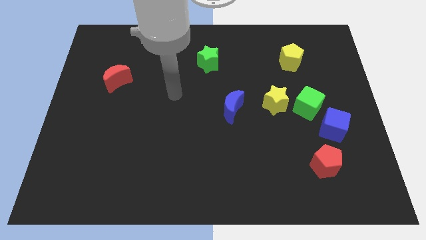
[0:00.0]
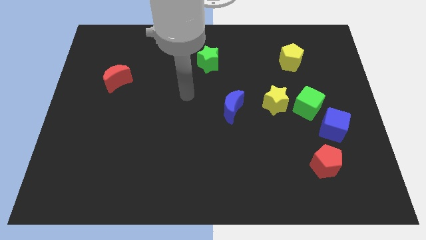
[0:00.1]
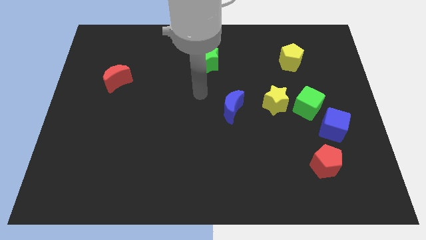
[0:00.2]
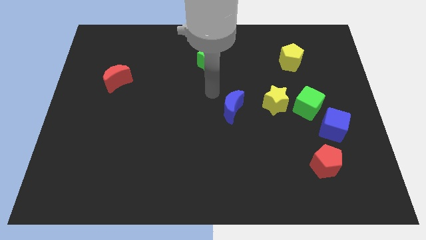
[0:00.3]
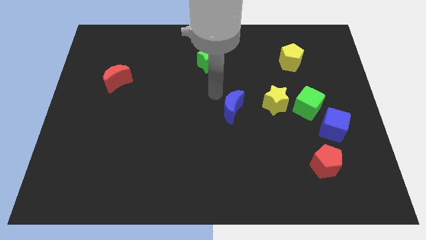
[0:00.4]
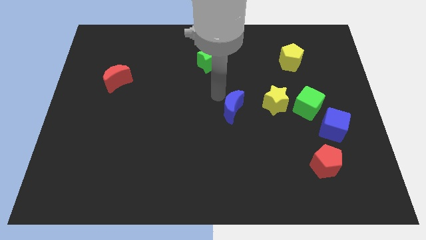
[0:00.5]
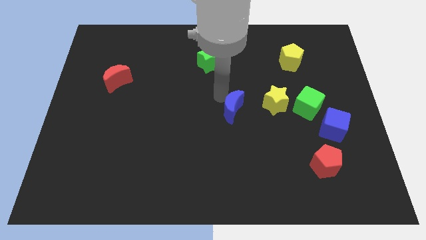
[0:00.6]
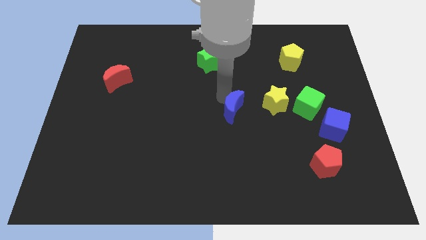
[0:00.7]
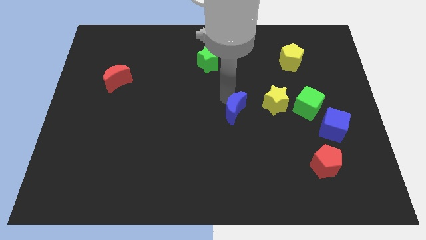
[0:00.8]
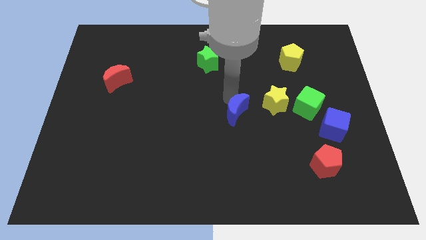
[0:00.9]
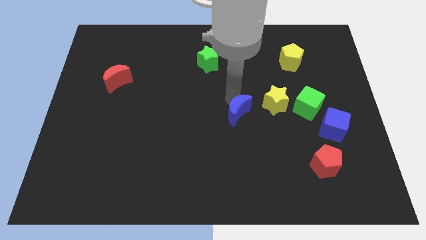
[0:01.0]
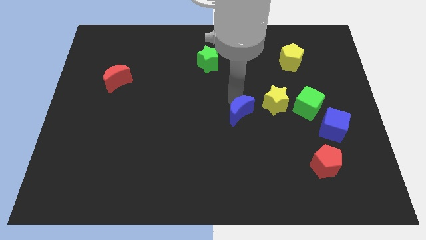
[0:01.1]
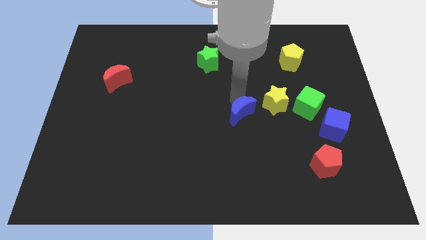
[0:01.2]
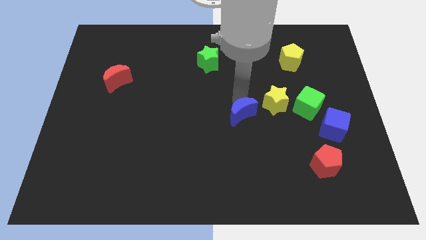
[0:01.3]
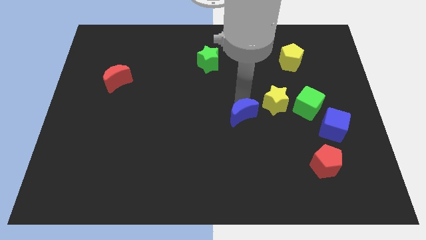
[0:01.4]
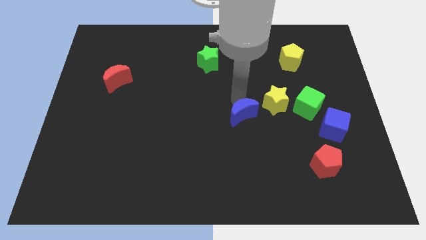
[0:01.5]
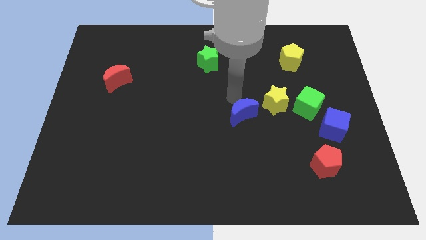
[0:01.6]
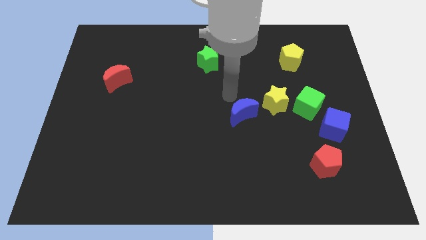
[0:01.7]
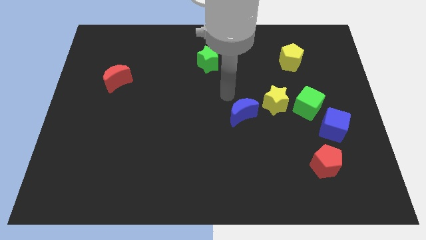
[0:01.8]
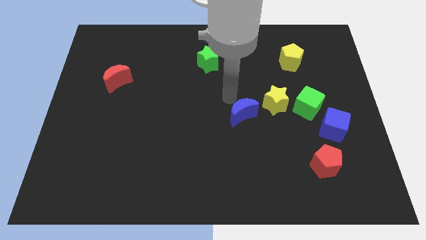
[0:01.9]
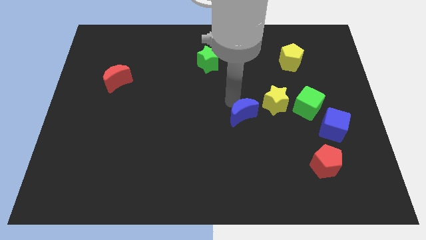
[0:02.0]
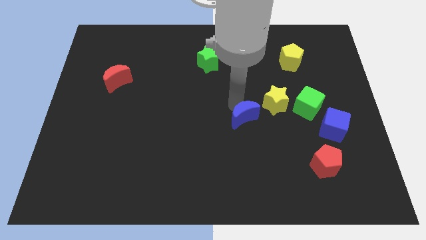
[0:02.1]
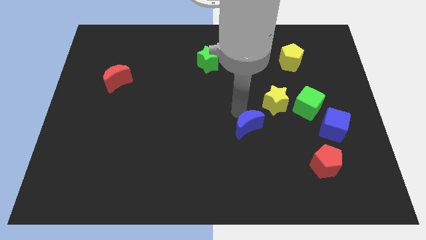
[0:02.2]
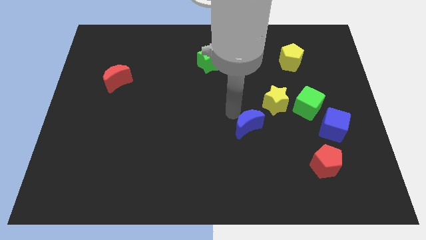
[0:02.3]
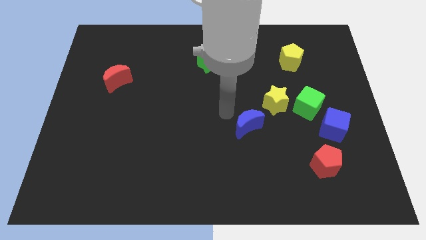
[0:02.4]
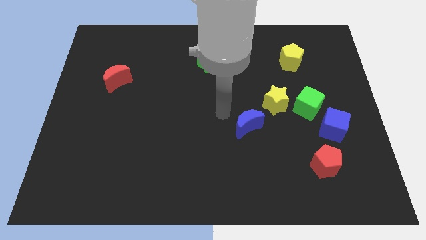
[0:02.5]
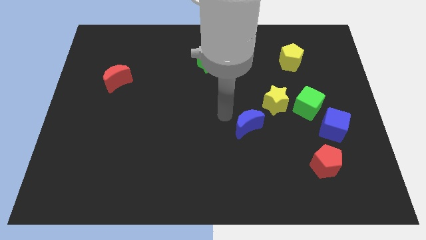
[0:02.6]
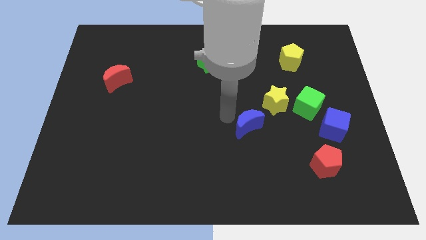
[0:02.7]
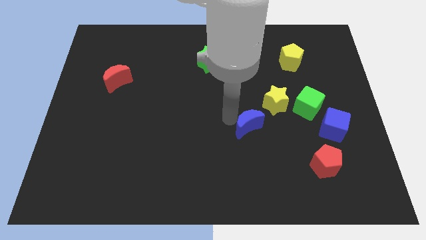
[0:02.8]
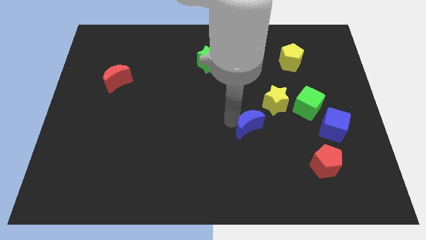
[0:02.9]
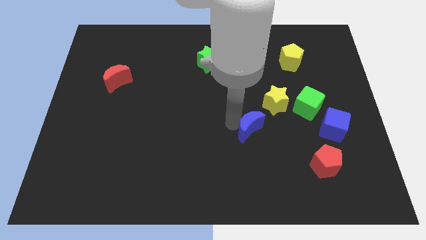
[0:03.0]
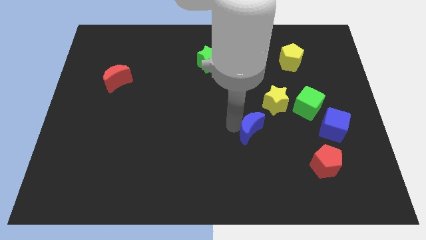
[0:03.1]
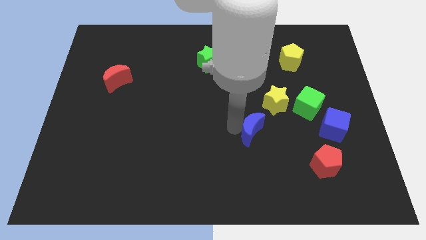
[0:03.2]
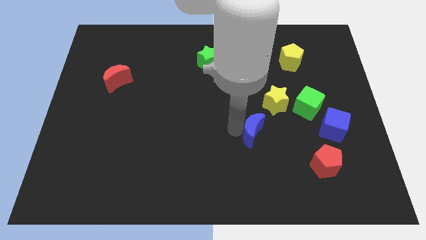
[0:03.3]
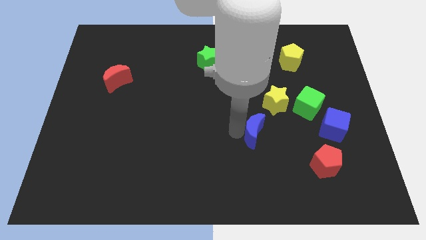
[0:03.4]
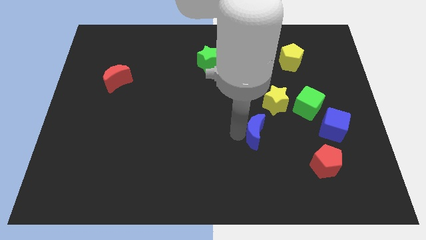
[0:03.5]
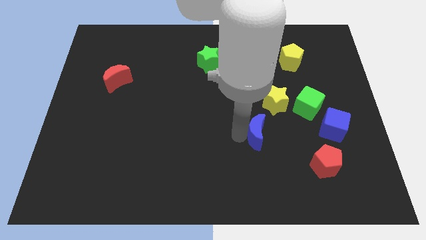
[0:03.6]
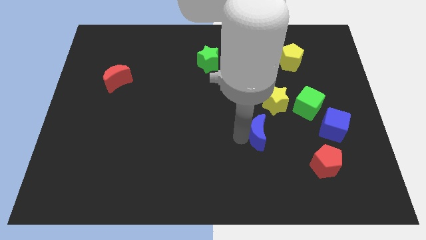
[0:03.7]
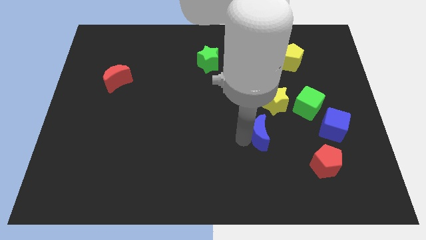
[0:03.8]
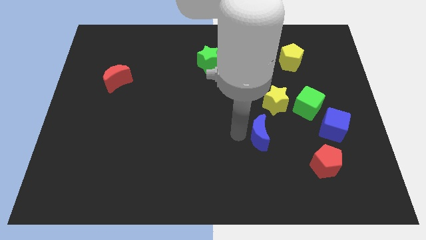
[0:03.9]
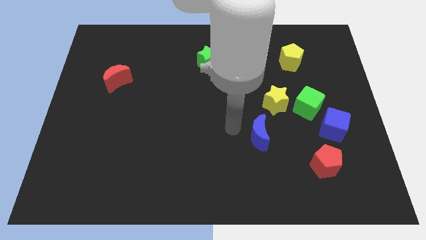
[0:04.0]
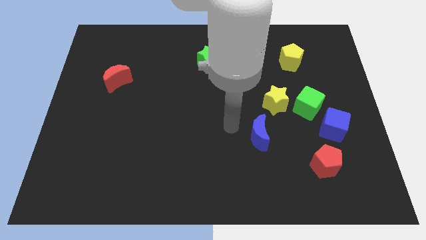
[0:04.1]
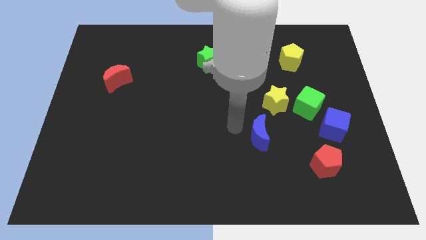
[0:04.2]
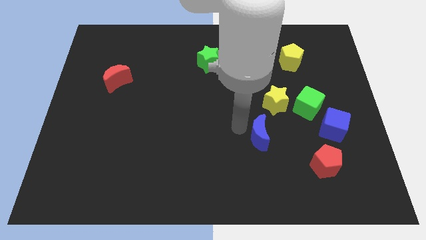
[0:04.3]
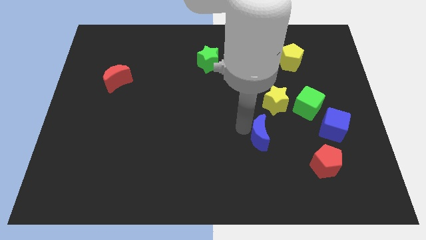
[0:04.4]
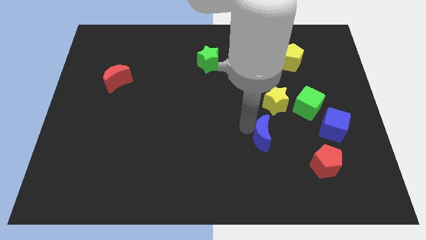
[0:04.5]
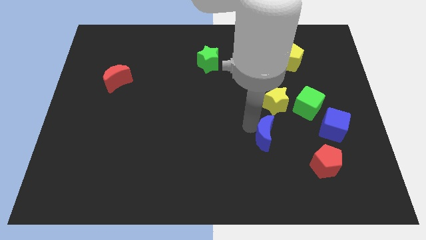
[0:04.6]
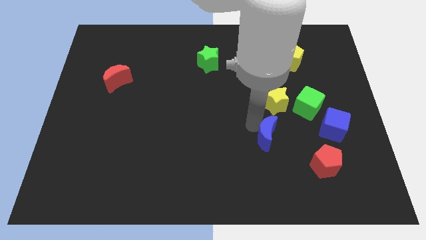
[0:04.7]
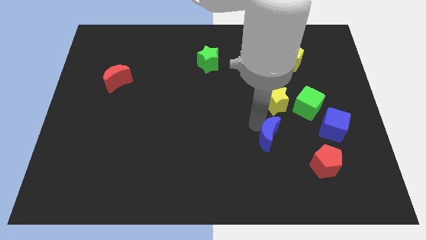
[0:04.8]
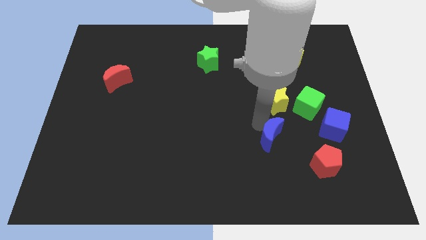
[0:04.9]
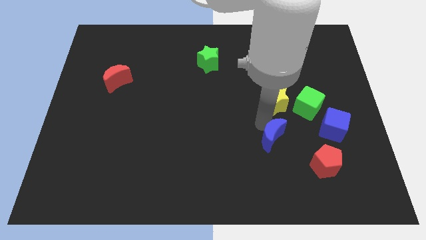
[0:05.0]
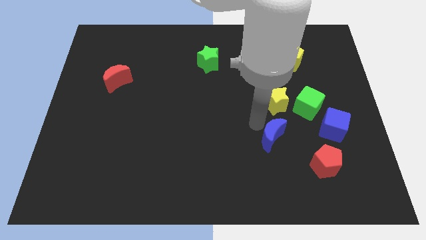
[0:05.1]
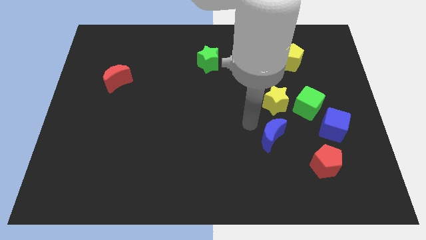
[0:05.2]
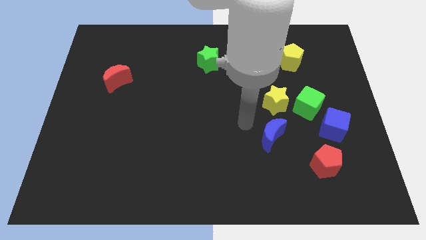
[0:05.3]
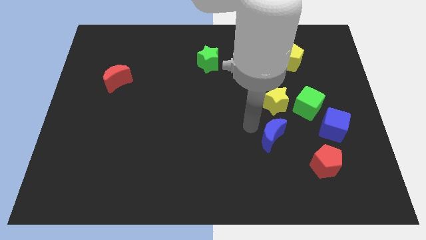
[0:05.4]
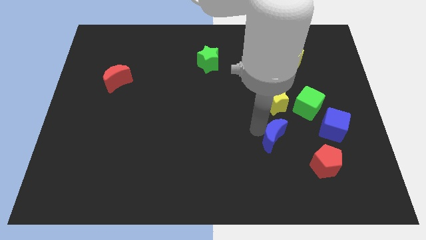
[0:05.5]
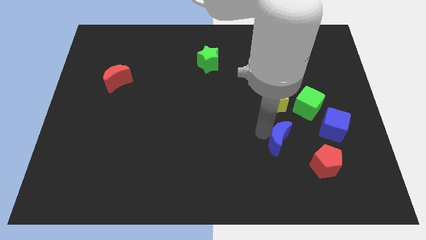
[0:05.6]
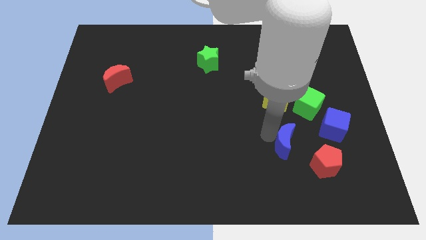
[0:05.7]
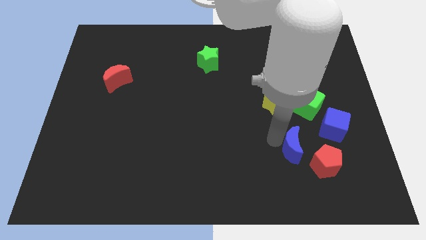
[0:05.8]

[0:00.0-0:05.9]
push the blue moon to the bottom left of the blue cube

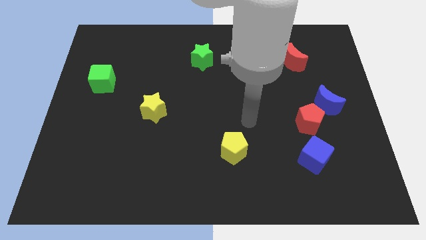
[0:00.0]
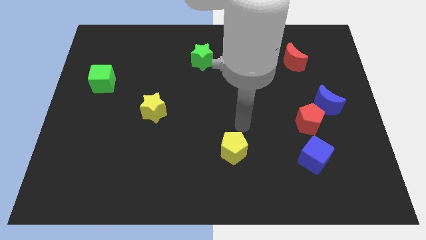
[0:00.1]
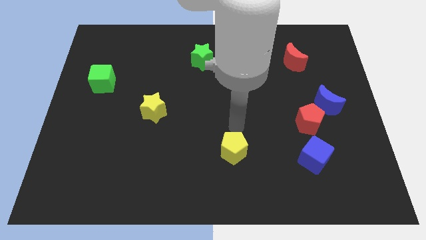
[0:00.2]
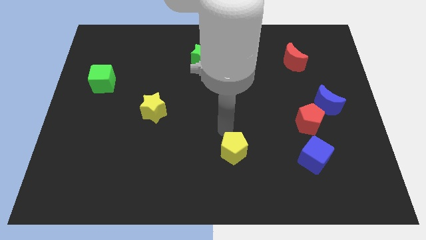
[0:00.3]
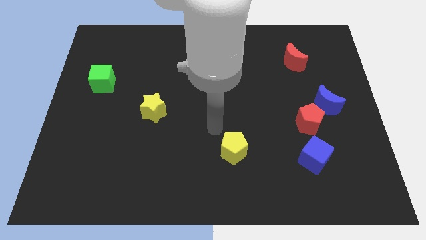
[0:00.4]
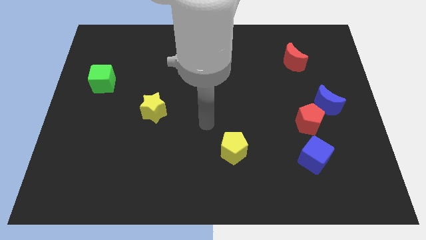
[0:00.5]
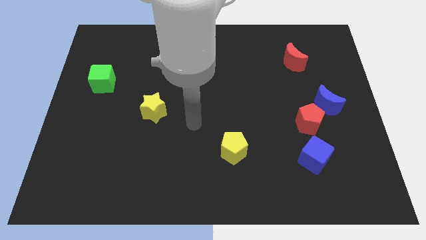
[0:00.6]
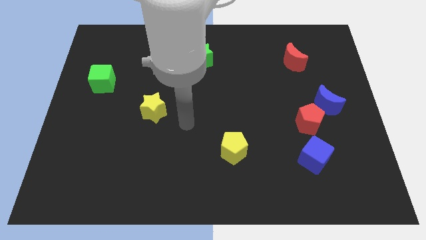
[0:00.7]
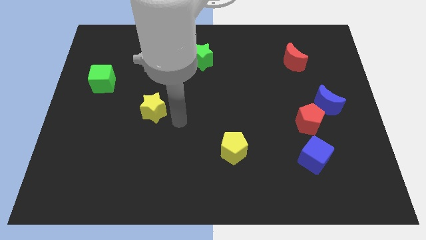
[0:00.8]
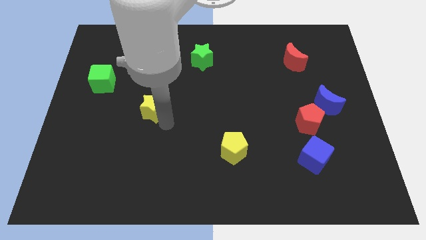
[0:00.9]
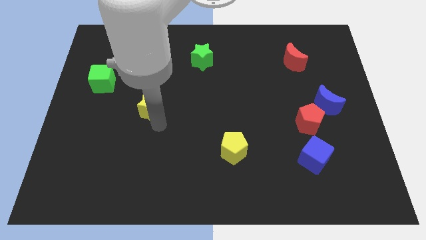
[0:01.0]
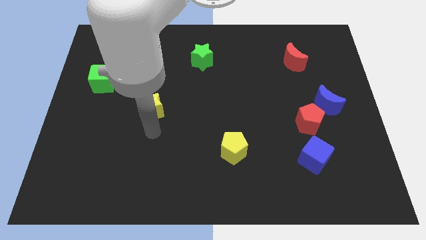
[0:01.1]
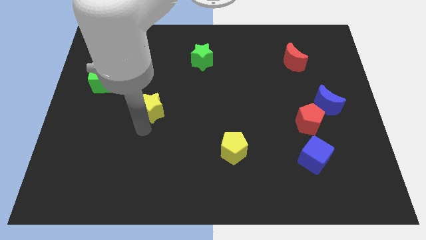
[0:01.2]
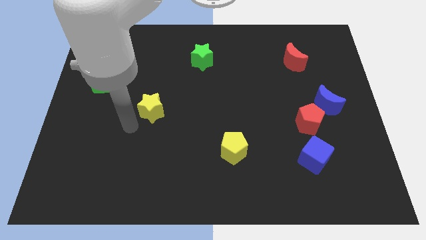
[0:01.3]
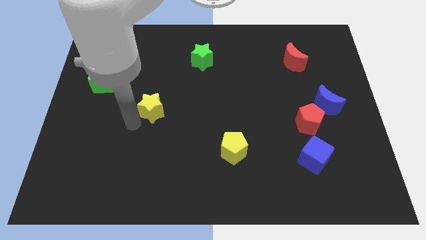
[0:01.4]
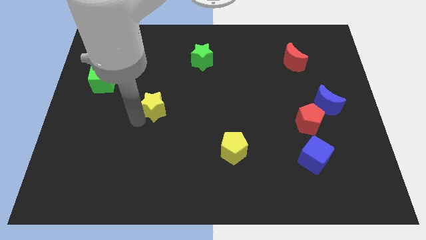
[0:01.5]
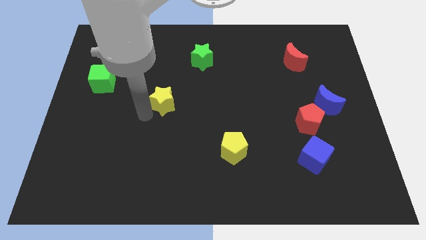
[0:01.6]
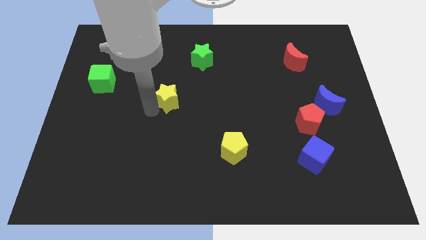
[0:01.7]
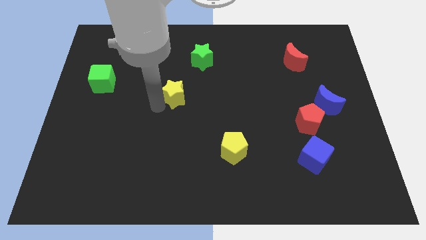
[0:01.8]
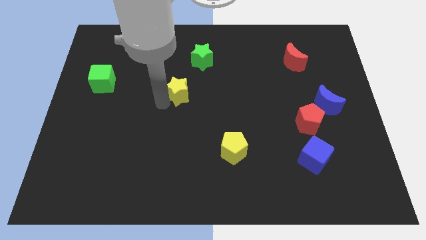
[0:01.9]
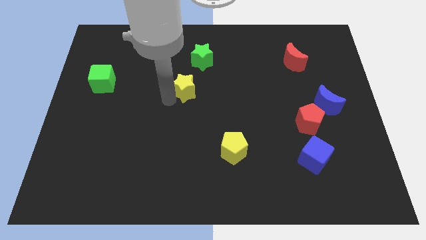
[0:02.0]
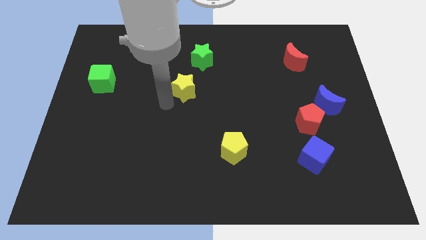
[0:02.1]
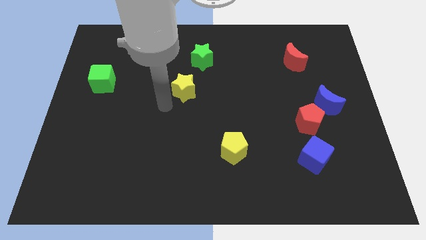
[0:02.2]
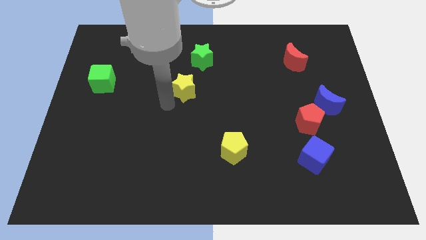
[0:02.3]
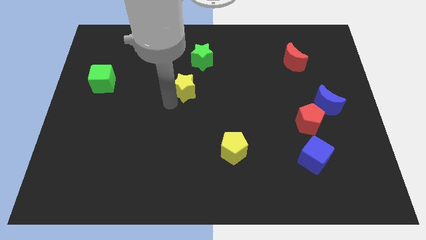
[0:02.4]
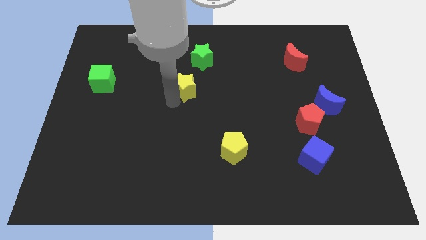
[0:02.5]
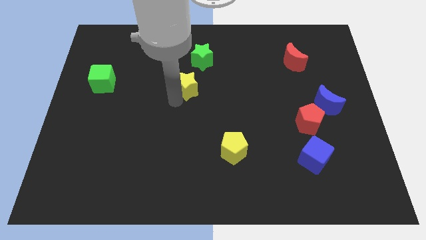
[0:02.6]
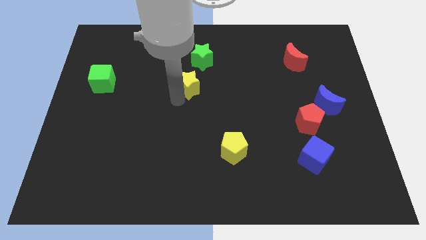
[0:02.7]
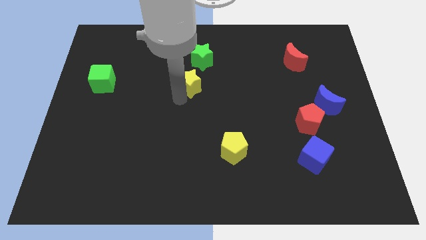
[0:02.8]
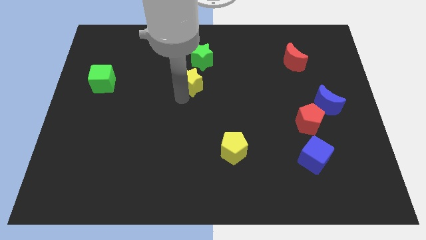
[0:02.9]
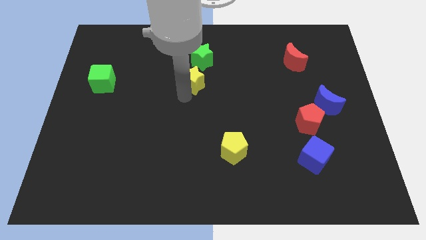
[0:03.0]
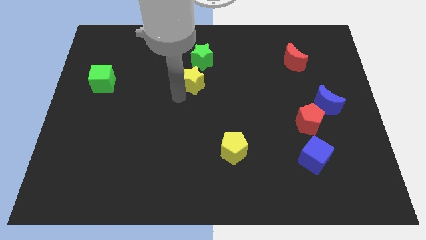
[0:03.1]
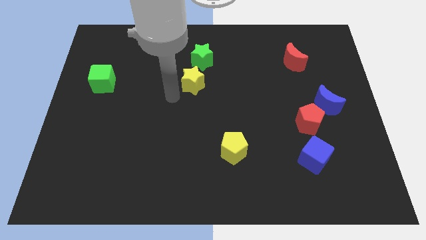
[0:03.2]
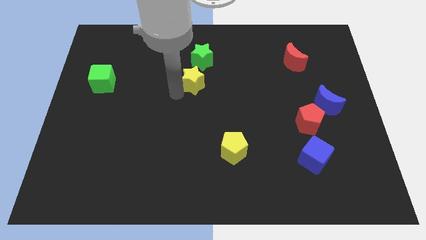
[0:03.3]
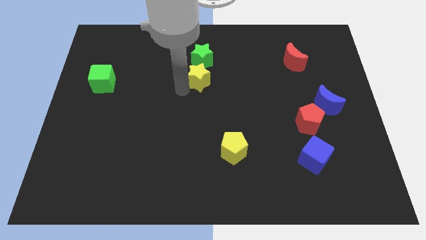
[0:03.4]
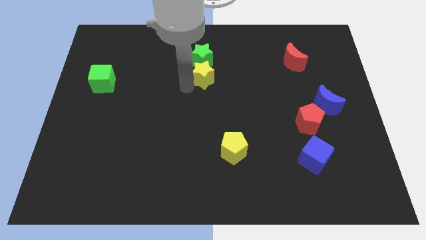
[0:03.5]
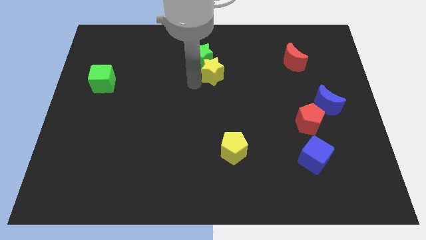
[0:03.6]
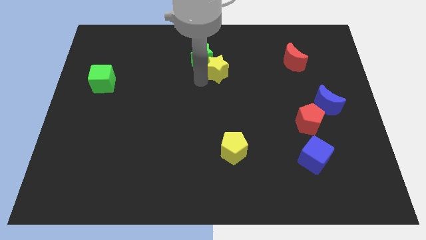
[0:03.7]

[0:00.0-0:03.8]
push the yellow star right of the green star
